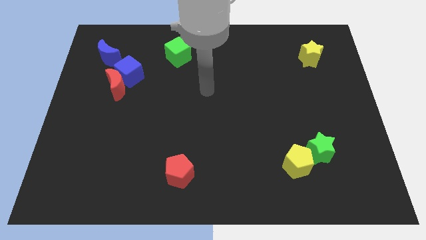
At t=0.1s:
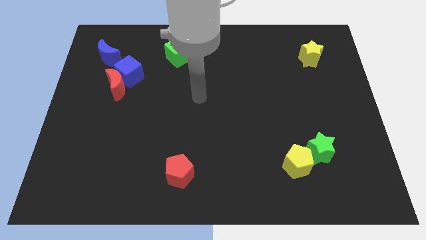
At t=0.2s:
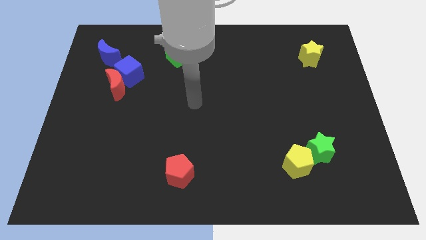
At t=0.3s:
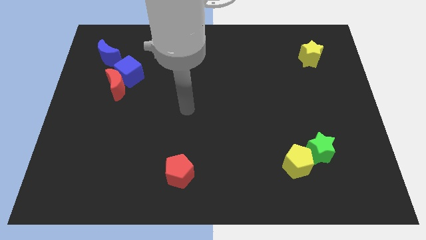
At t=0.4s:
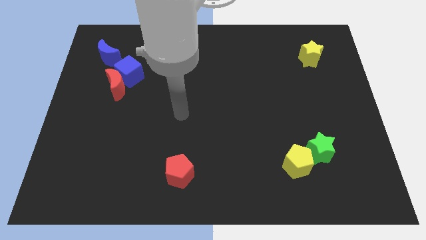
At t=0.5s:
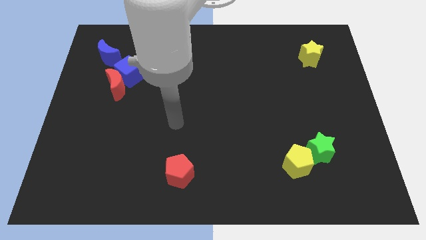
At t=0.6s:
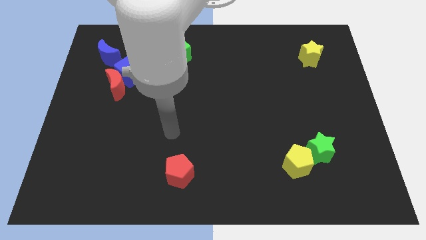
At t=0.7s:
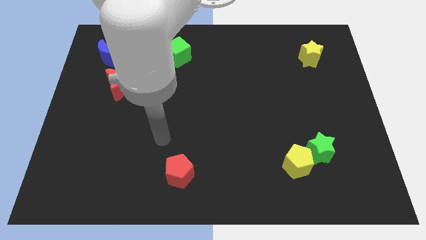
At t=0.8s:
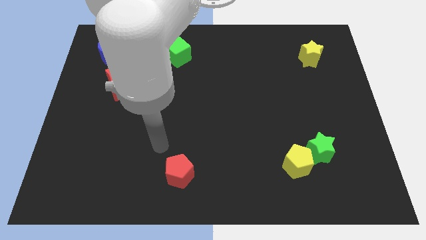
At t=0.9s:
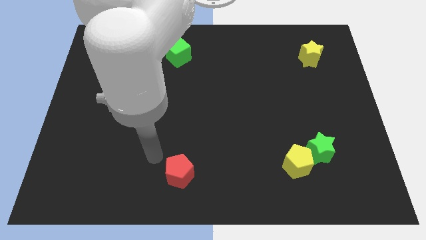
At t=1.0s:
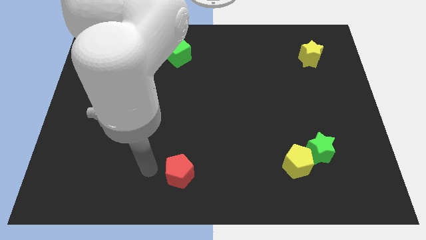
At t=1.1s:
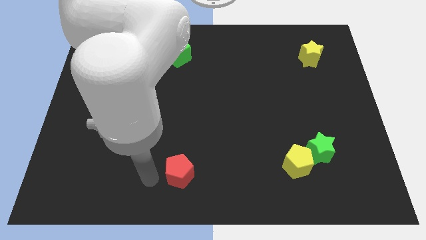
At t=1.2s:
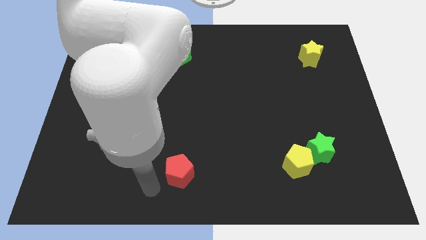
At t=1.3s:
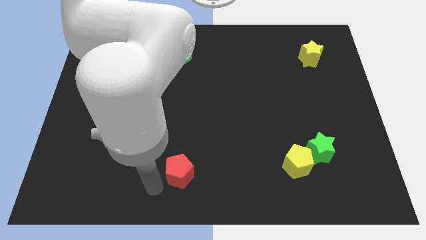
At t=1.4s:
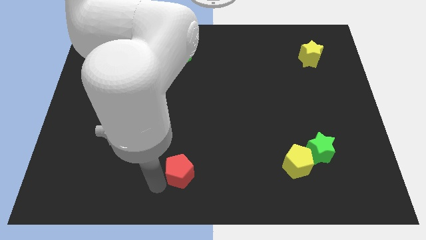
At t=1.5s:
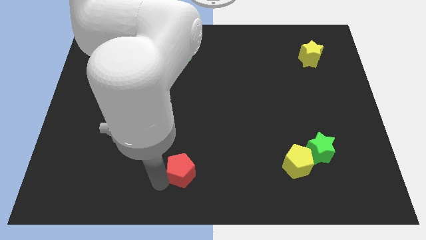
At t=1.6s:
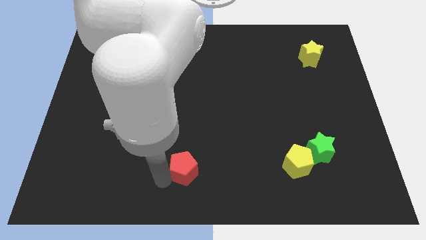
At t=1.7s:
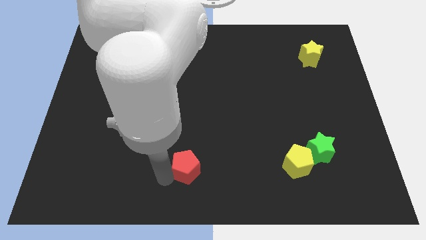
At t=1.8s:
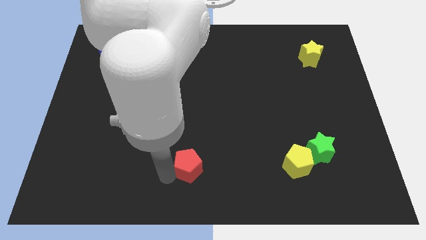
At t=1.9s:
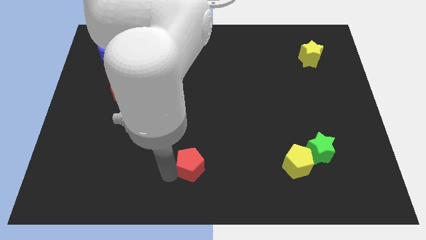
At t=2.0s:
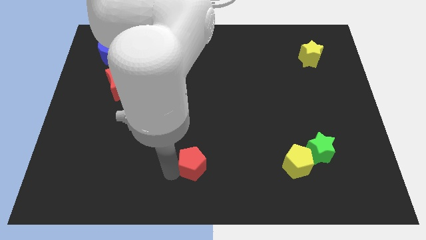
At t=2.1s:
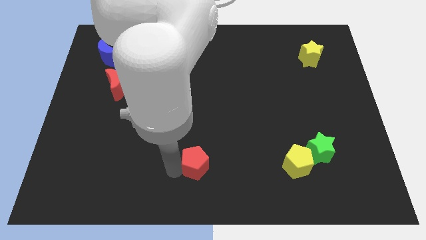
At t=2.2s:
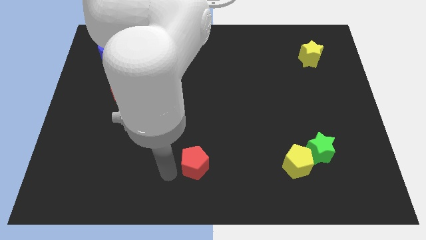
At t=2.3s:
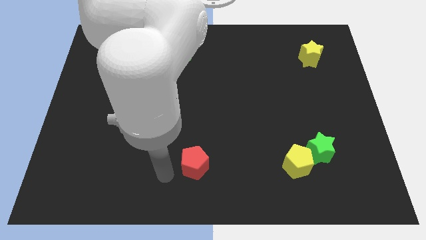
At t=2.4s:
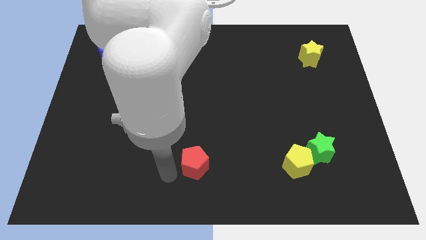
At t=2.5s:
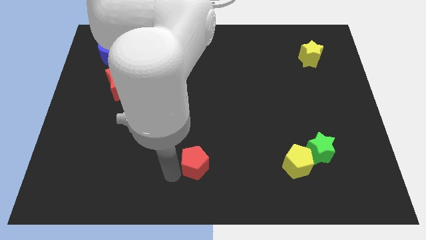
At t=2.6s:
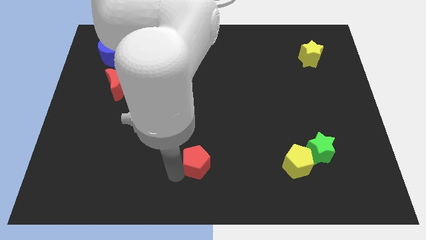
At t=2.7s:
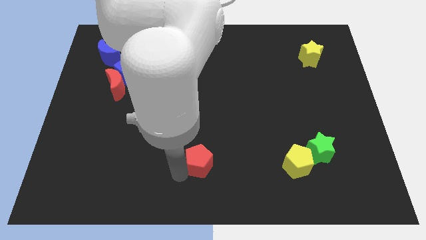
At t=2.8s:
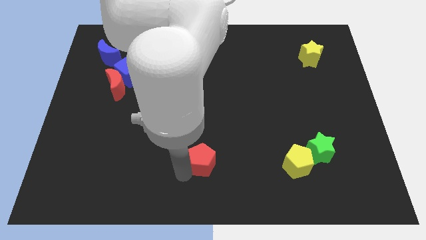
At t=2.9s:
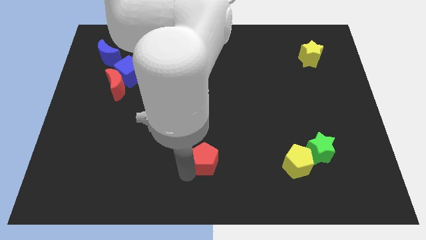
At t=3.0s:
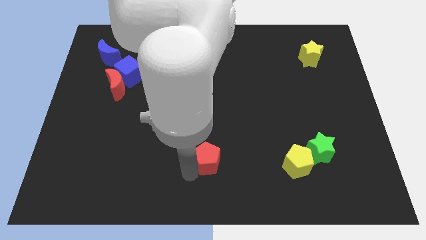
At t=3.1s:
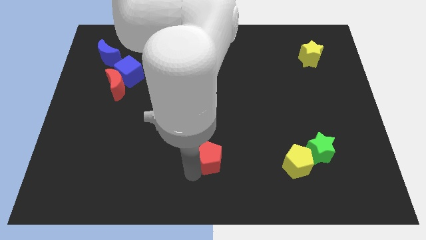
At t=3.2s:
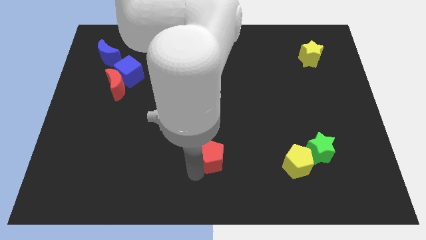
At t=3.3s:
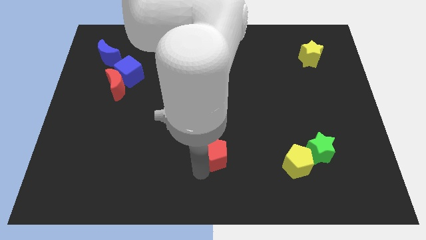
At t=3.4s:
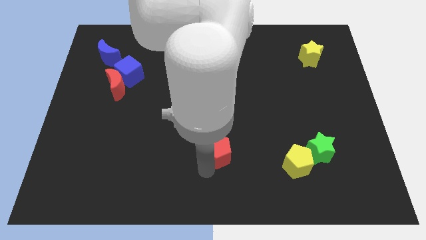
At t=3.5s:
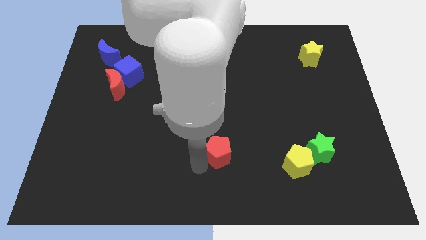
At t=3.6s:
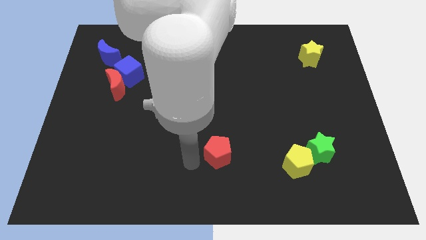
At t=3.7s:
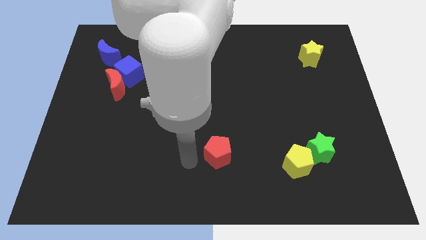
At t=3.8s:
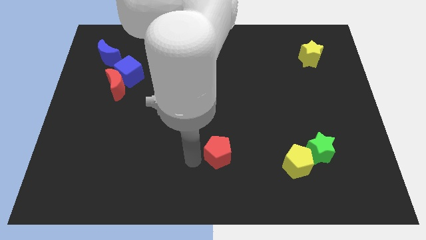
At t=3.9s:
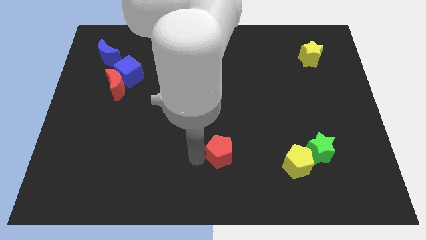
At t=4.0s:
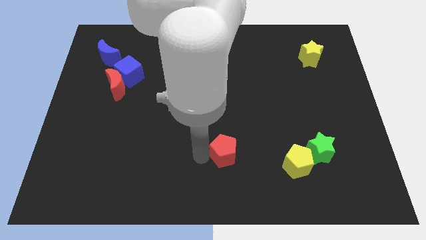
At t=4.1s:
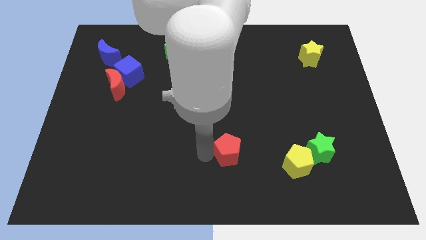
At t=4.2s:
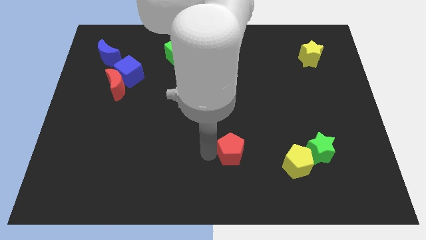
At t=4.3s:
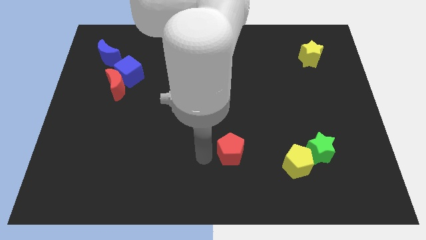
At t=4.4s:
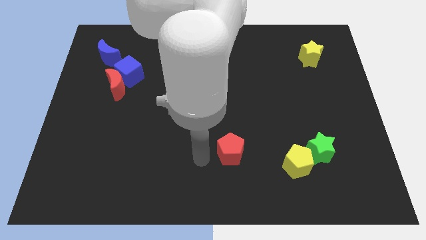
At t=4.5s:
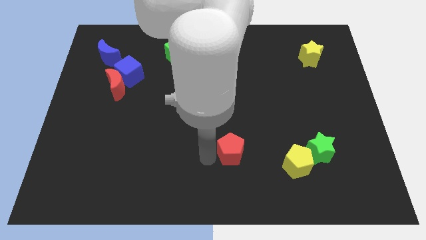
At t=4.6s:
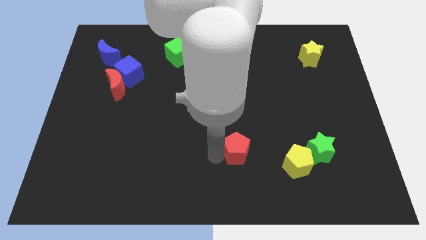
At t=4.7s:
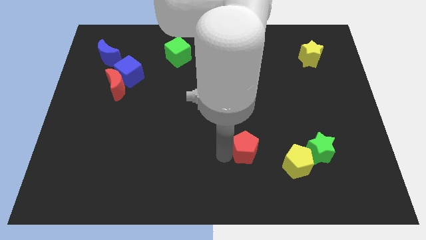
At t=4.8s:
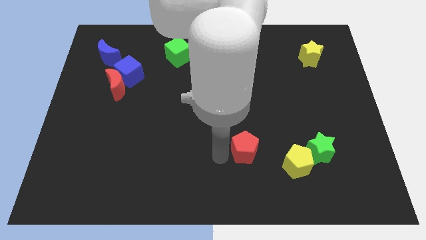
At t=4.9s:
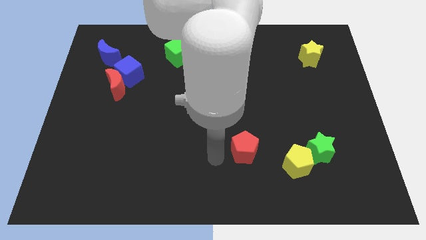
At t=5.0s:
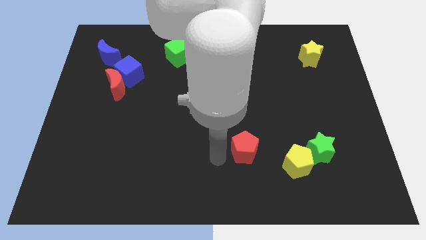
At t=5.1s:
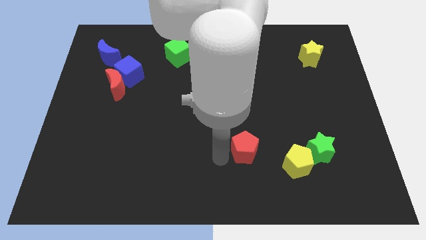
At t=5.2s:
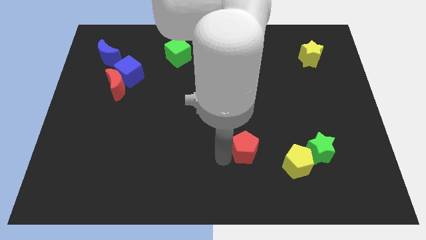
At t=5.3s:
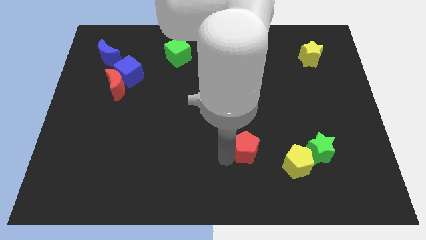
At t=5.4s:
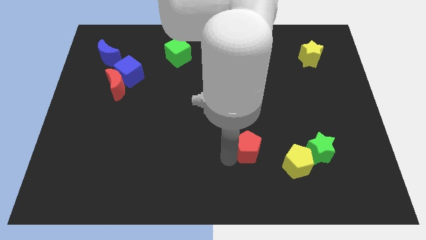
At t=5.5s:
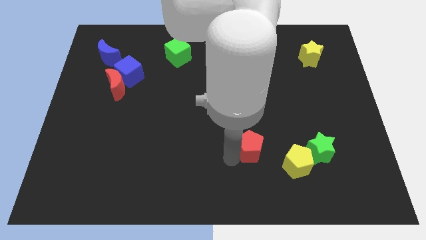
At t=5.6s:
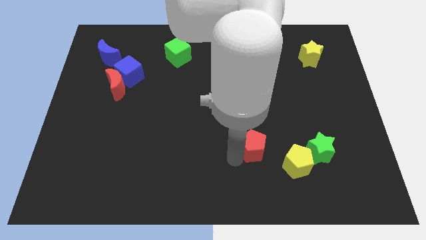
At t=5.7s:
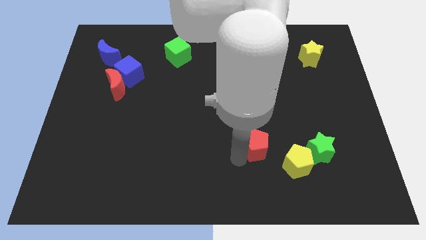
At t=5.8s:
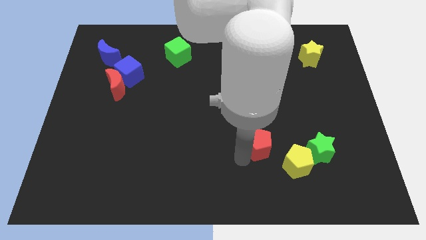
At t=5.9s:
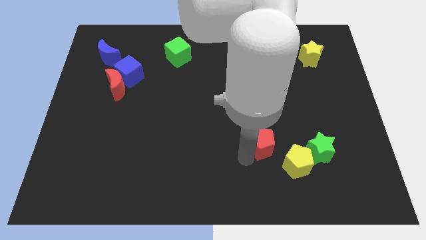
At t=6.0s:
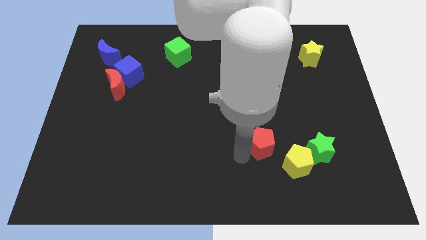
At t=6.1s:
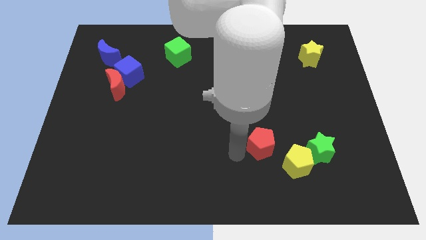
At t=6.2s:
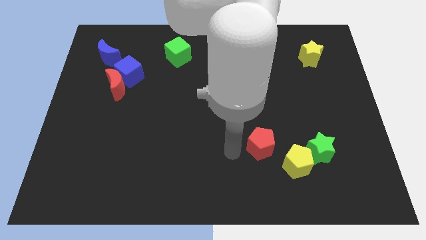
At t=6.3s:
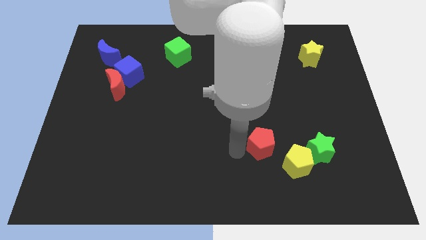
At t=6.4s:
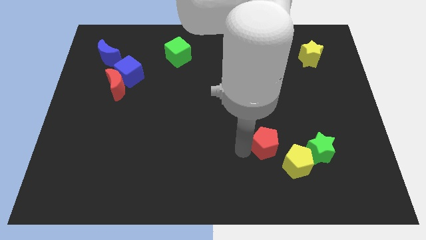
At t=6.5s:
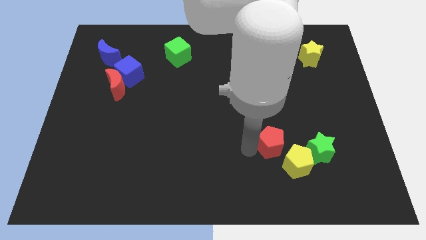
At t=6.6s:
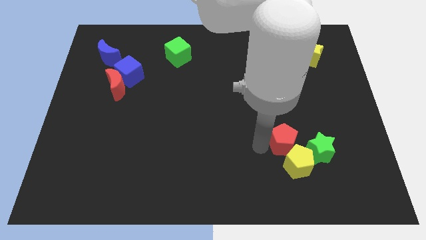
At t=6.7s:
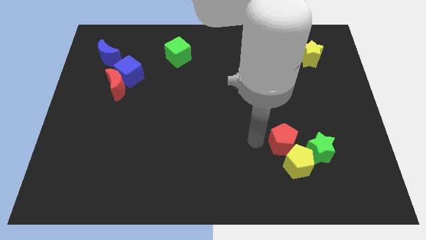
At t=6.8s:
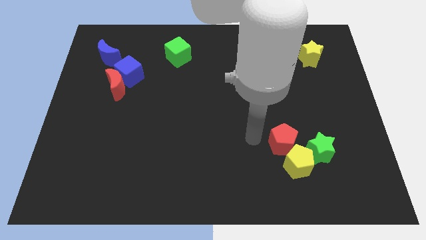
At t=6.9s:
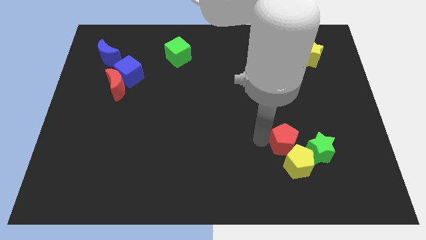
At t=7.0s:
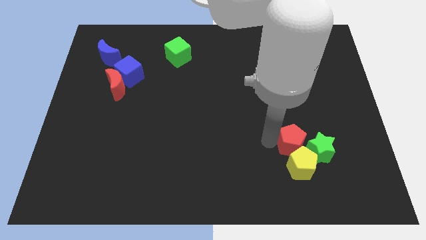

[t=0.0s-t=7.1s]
push the red pentagon towards the green star

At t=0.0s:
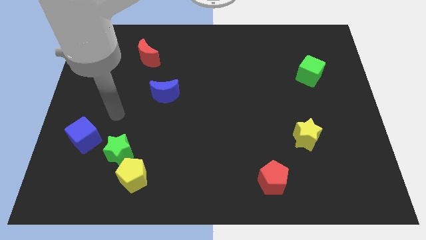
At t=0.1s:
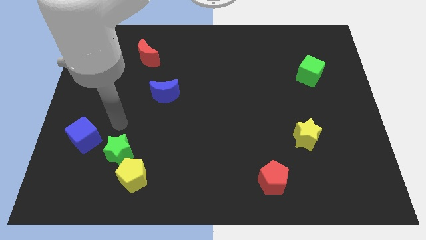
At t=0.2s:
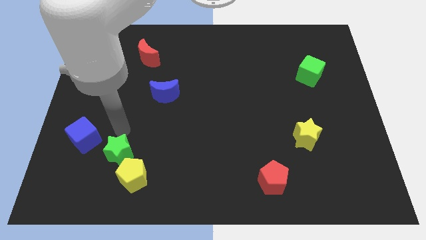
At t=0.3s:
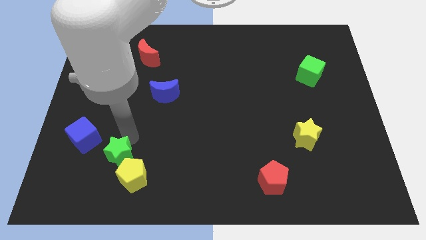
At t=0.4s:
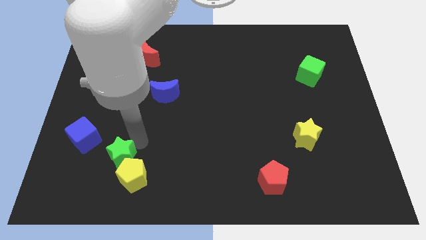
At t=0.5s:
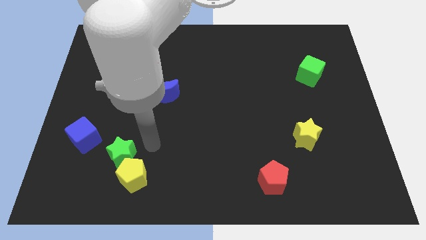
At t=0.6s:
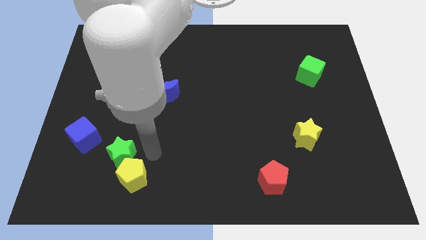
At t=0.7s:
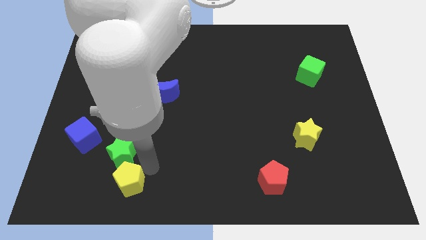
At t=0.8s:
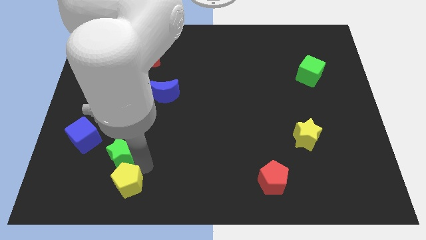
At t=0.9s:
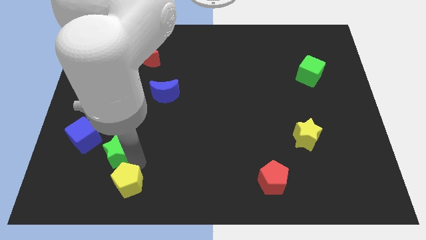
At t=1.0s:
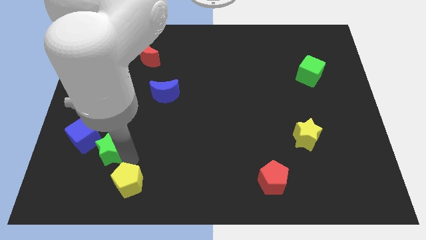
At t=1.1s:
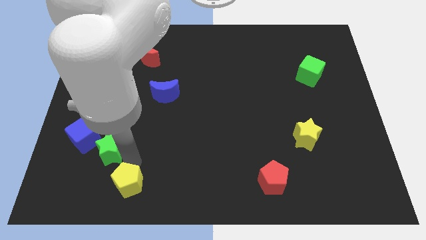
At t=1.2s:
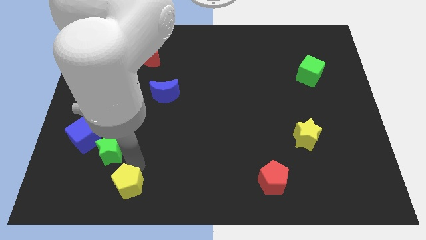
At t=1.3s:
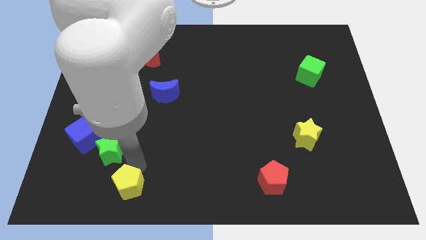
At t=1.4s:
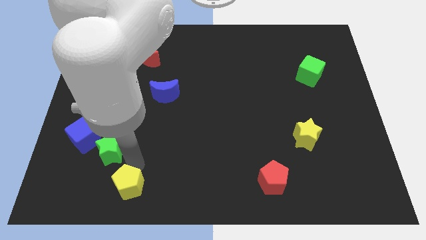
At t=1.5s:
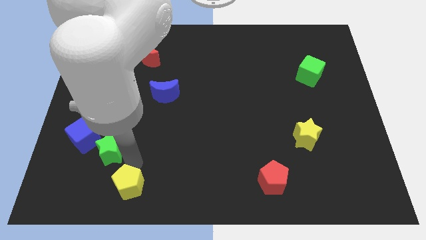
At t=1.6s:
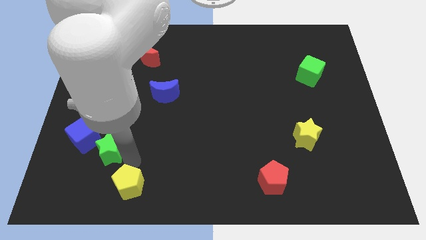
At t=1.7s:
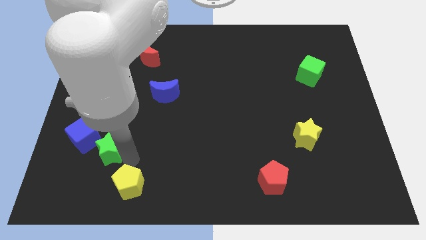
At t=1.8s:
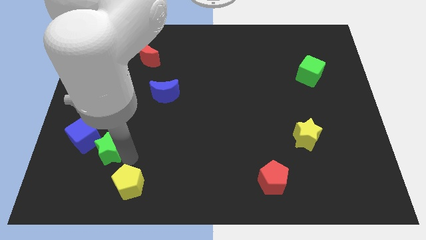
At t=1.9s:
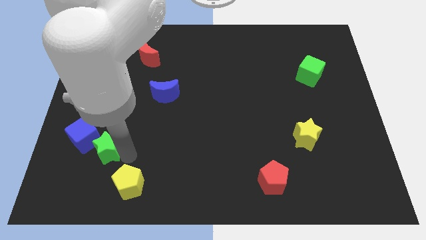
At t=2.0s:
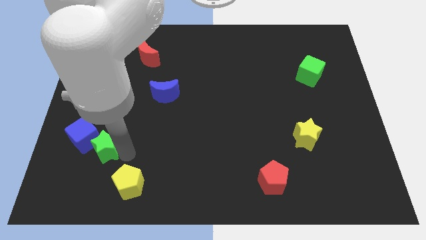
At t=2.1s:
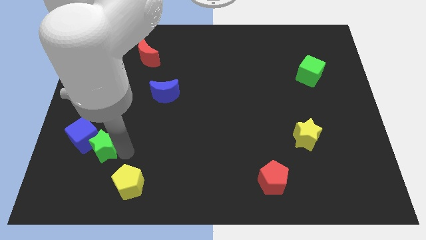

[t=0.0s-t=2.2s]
move the green star towards the blue cube
